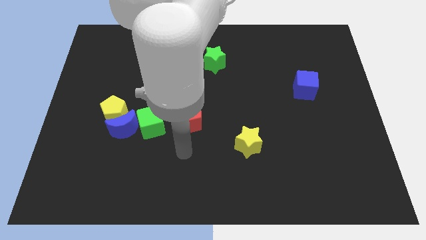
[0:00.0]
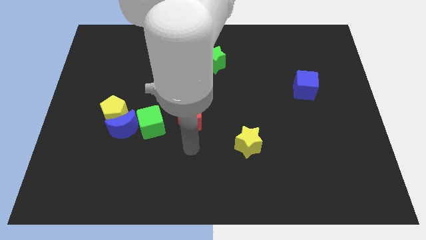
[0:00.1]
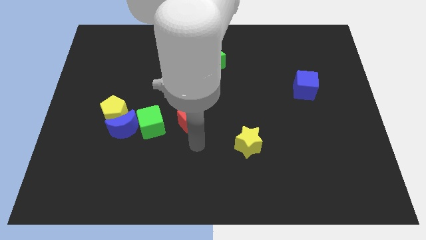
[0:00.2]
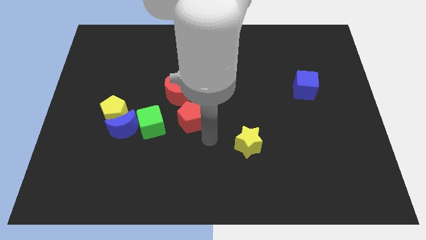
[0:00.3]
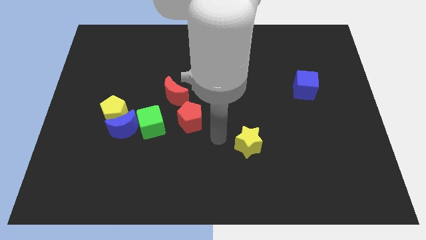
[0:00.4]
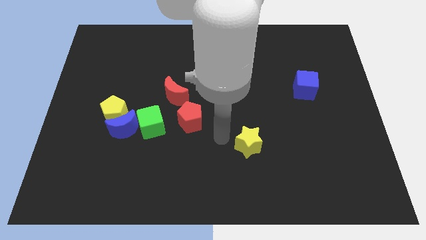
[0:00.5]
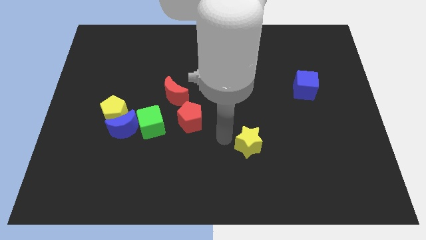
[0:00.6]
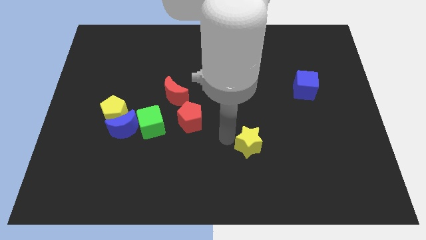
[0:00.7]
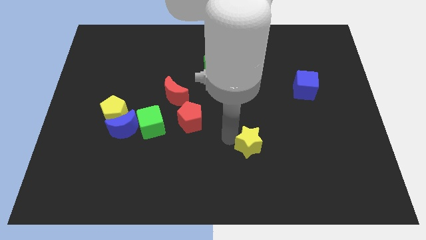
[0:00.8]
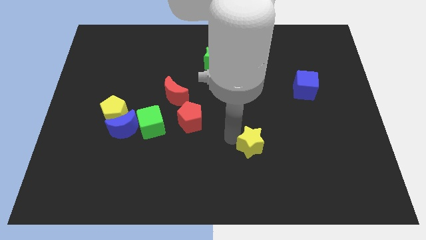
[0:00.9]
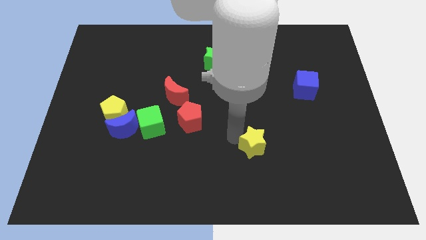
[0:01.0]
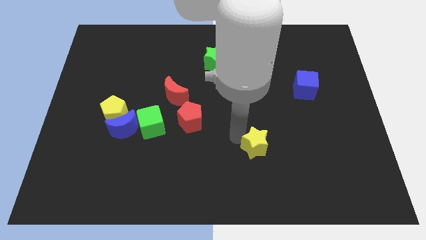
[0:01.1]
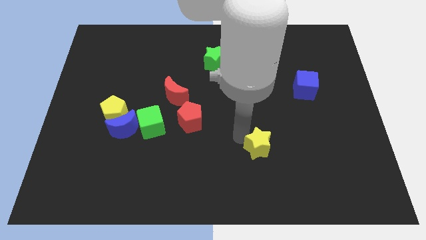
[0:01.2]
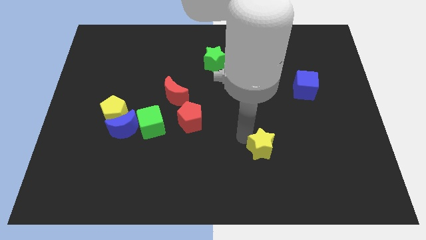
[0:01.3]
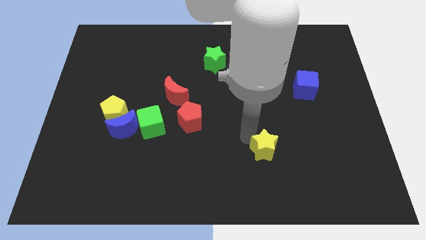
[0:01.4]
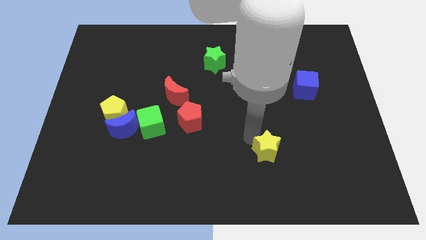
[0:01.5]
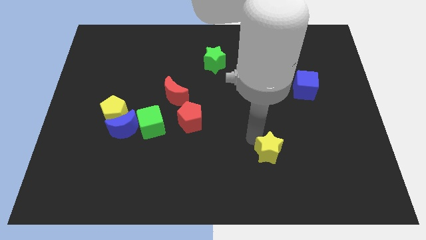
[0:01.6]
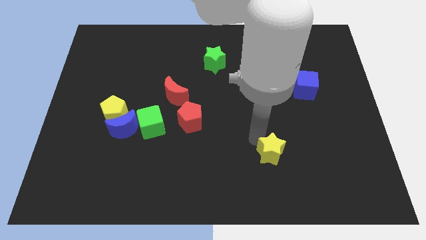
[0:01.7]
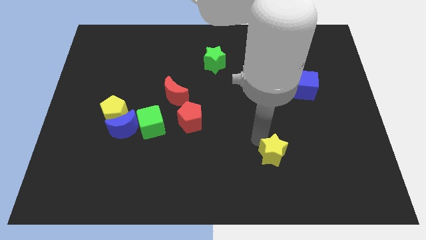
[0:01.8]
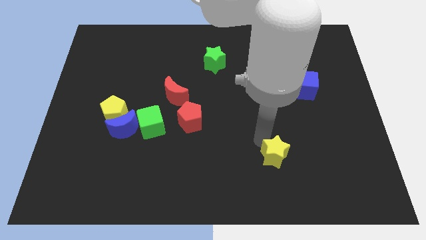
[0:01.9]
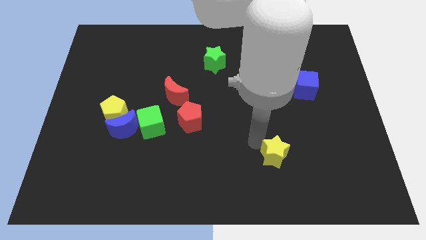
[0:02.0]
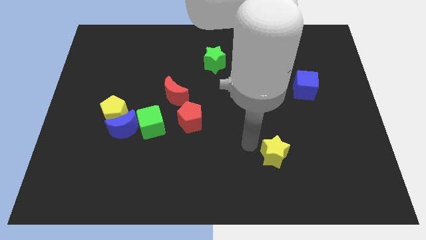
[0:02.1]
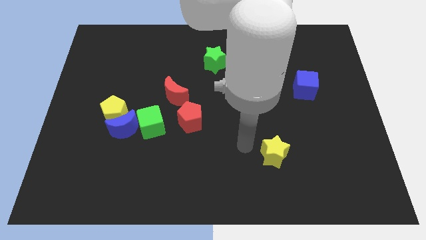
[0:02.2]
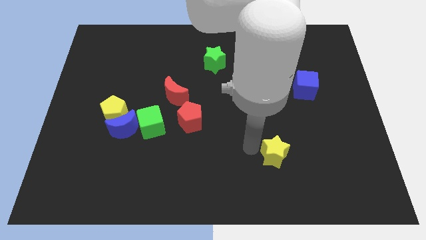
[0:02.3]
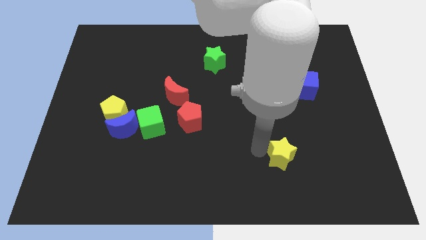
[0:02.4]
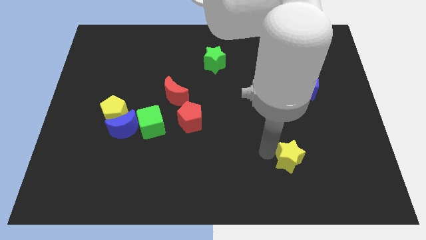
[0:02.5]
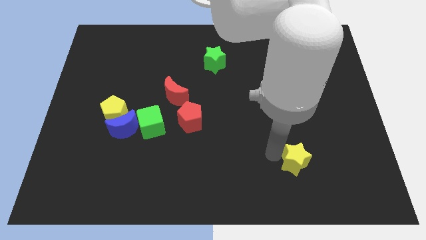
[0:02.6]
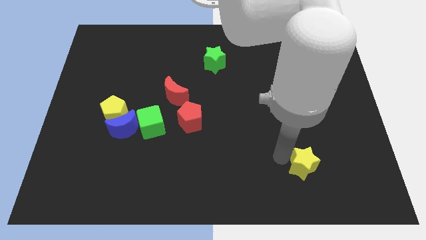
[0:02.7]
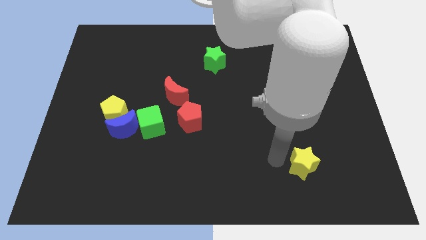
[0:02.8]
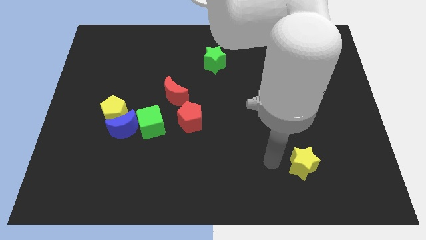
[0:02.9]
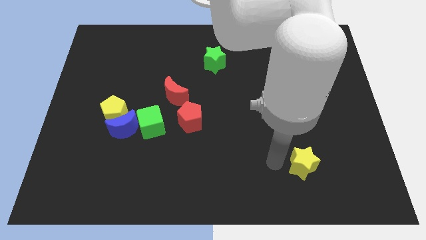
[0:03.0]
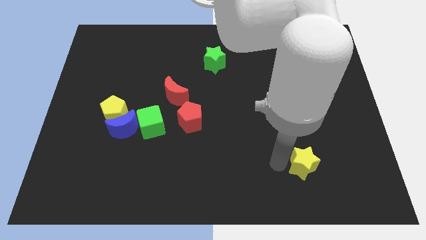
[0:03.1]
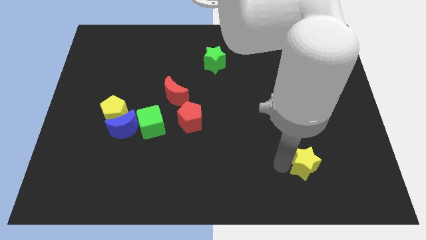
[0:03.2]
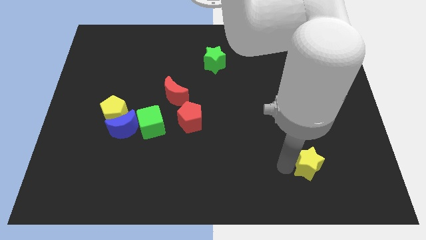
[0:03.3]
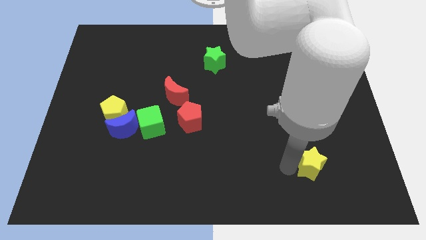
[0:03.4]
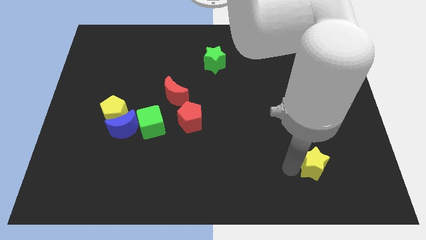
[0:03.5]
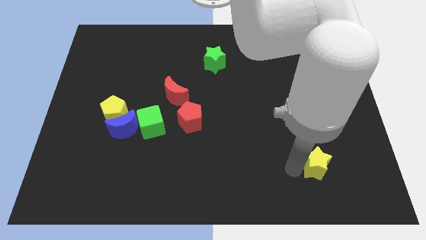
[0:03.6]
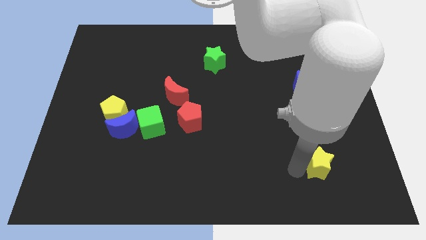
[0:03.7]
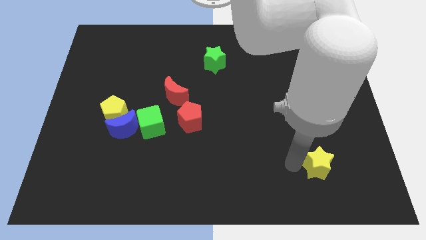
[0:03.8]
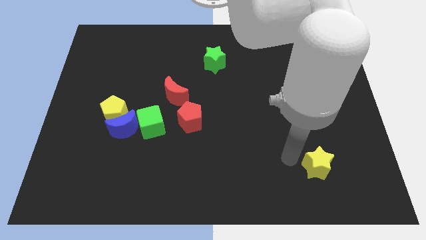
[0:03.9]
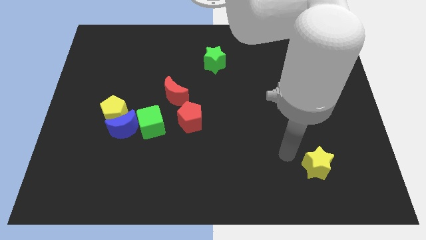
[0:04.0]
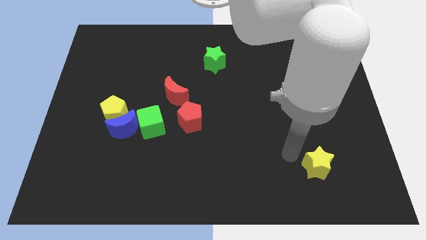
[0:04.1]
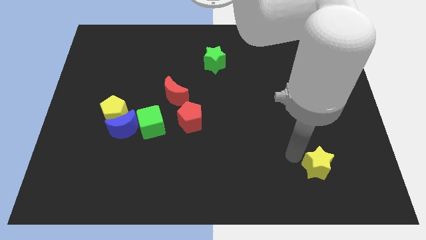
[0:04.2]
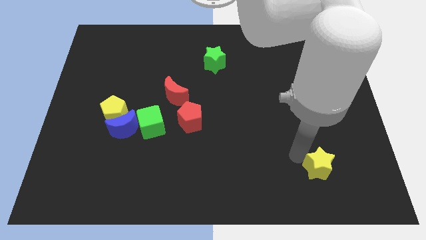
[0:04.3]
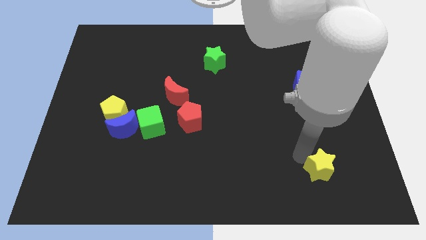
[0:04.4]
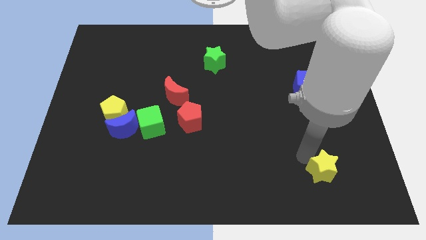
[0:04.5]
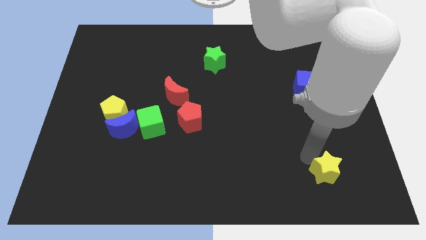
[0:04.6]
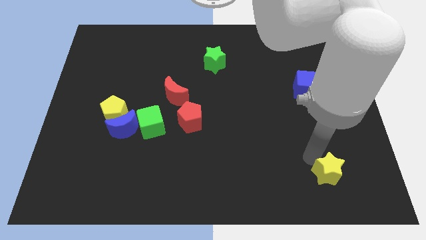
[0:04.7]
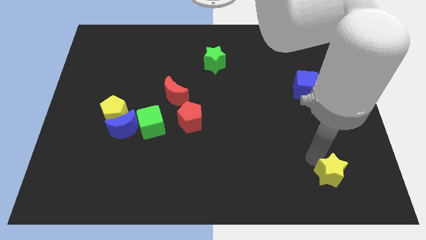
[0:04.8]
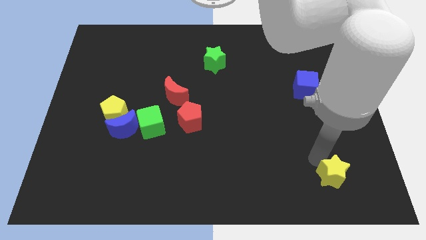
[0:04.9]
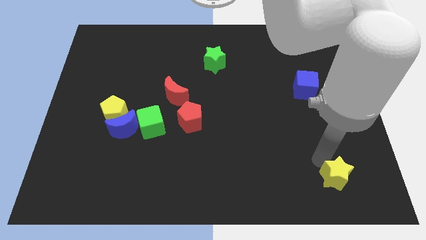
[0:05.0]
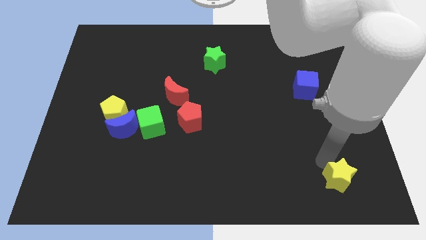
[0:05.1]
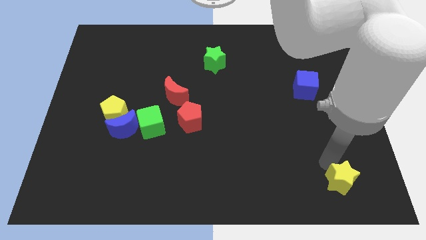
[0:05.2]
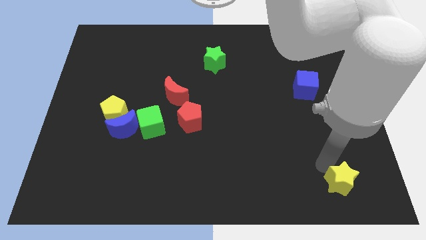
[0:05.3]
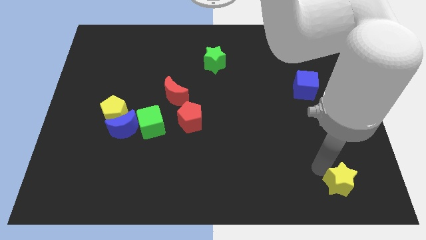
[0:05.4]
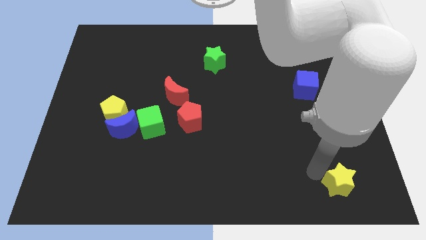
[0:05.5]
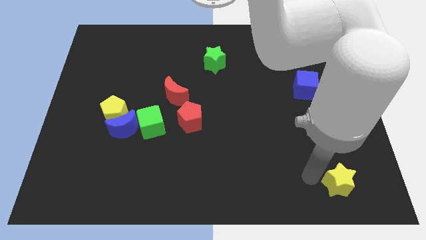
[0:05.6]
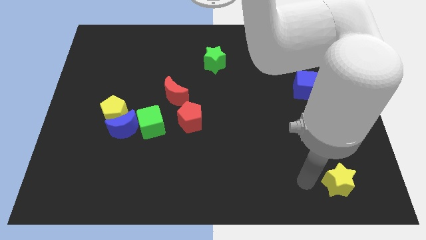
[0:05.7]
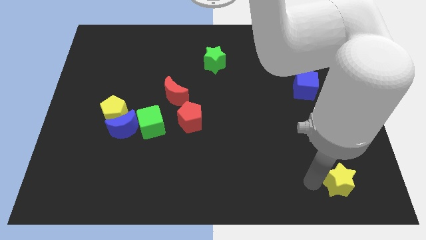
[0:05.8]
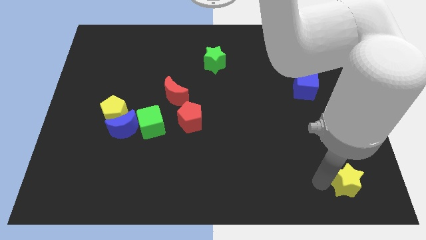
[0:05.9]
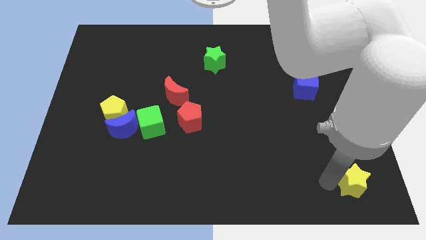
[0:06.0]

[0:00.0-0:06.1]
slide the yellow star to the bottom right of the board

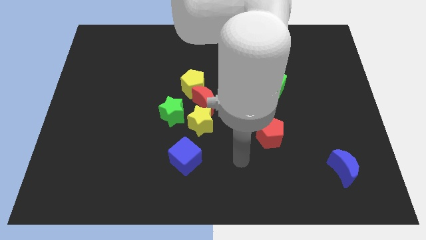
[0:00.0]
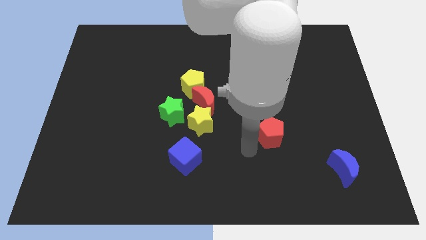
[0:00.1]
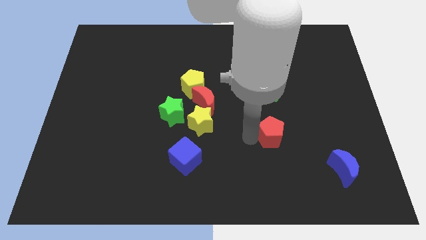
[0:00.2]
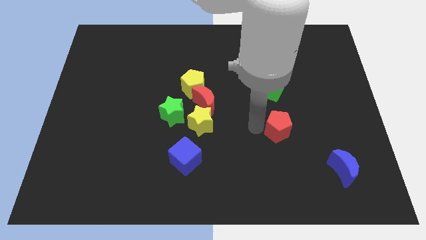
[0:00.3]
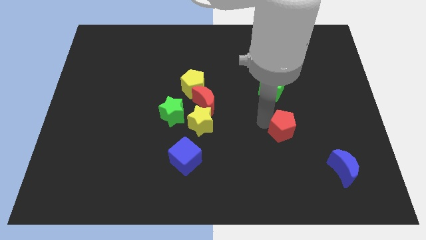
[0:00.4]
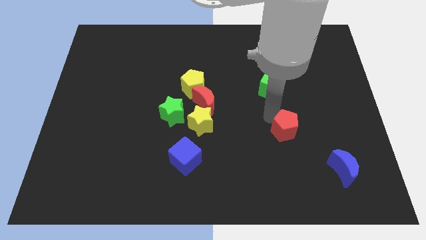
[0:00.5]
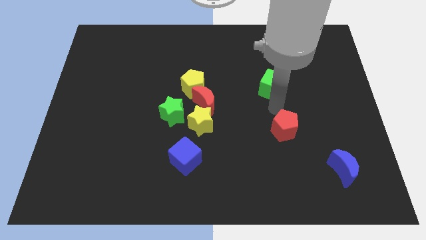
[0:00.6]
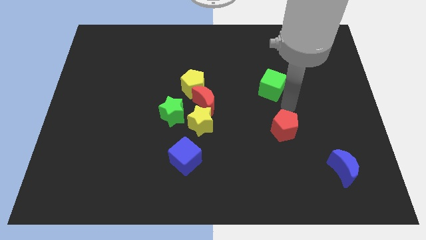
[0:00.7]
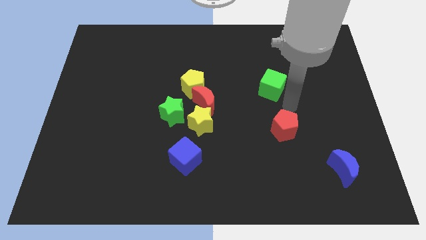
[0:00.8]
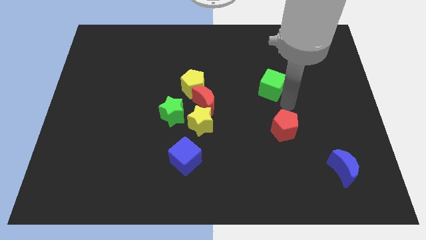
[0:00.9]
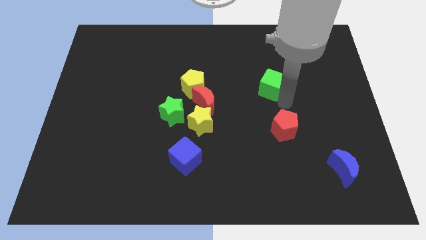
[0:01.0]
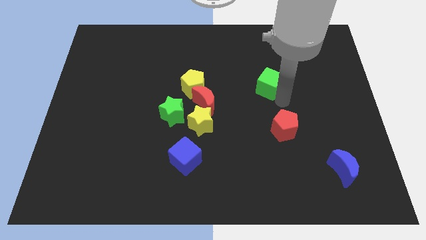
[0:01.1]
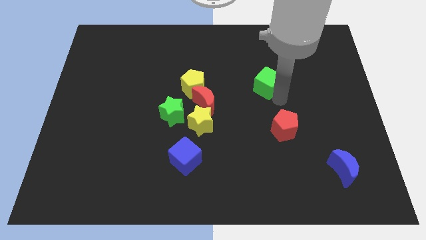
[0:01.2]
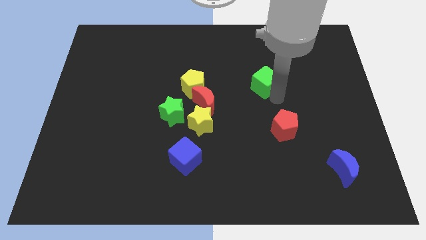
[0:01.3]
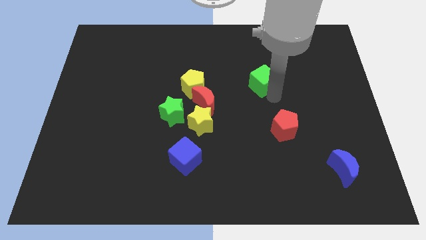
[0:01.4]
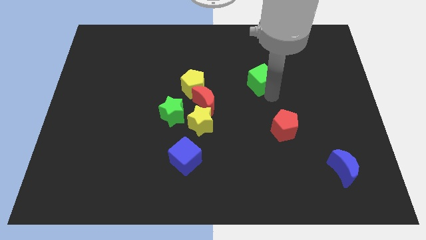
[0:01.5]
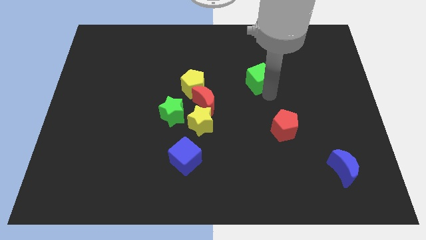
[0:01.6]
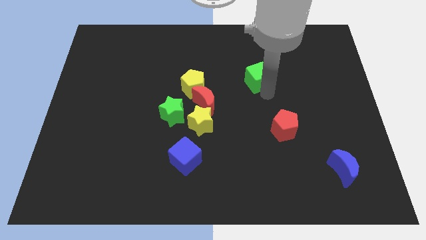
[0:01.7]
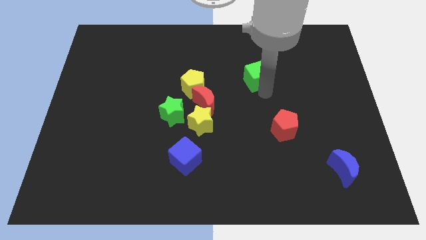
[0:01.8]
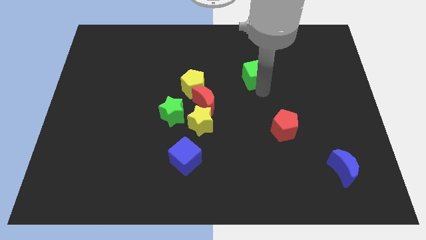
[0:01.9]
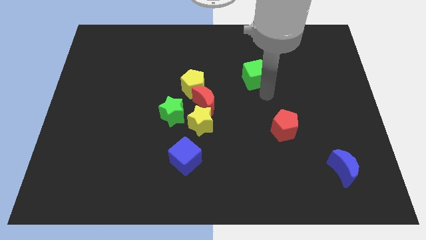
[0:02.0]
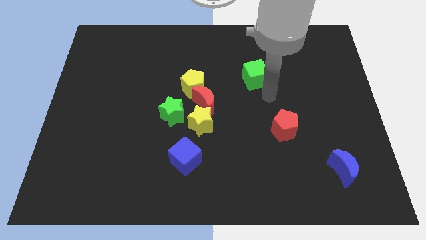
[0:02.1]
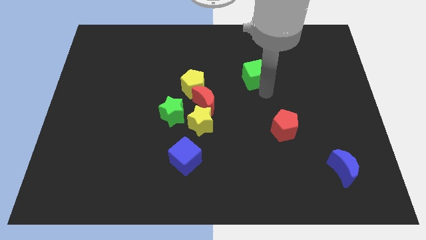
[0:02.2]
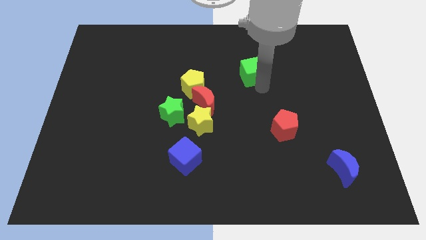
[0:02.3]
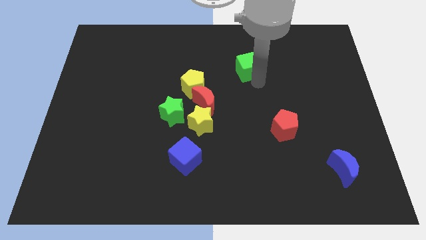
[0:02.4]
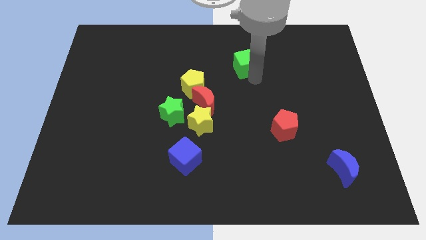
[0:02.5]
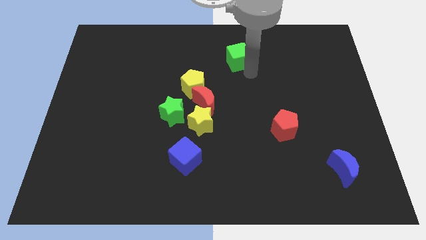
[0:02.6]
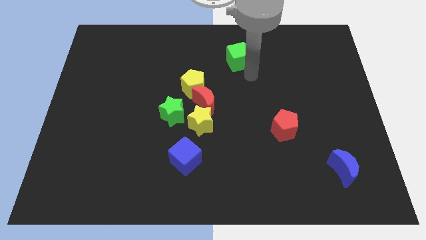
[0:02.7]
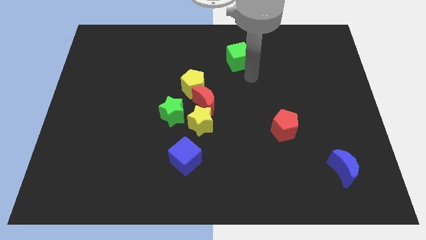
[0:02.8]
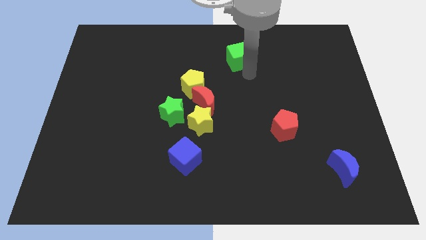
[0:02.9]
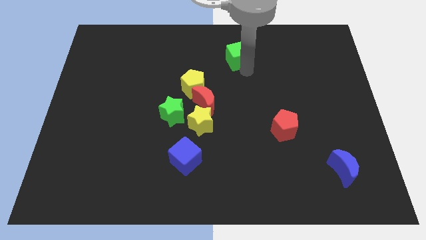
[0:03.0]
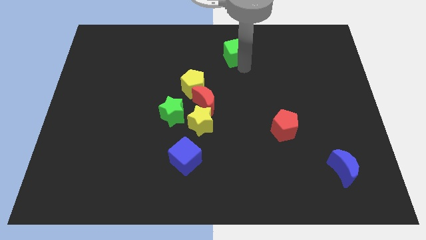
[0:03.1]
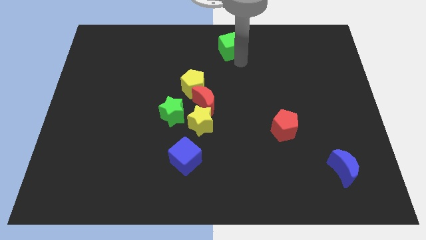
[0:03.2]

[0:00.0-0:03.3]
move the green cube to the towards your base
